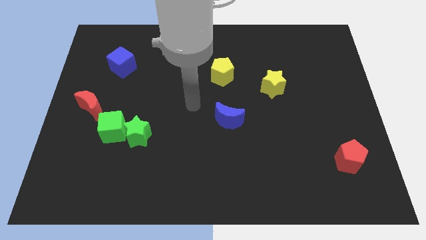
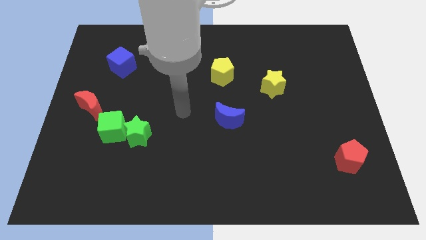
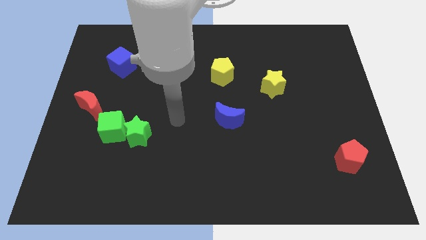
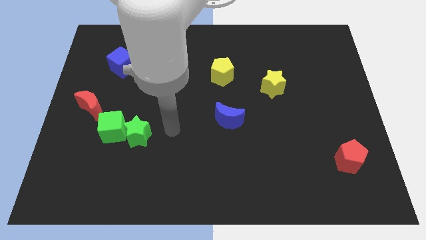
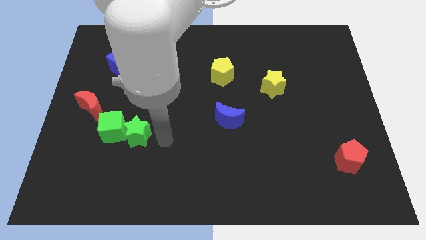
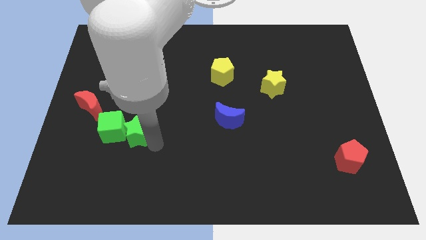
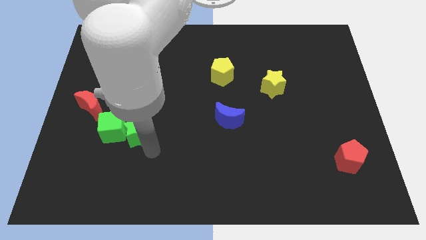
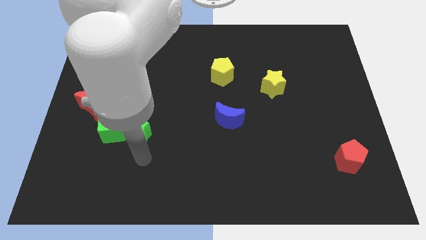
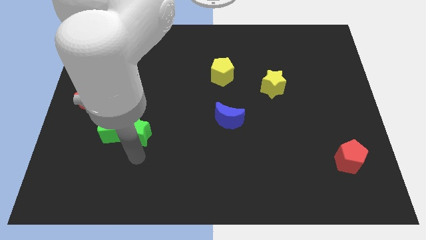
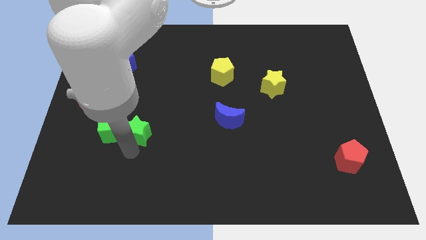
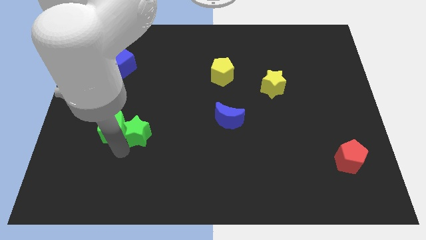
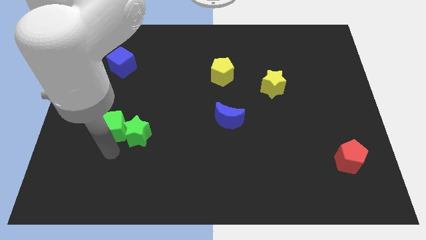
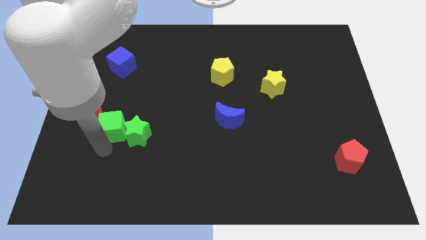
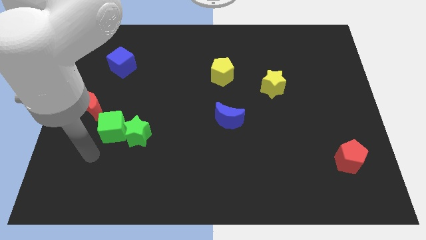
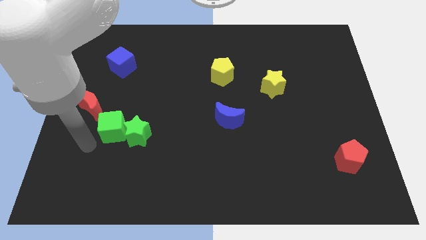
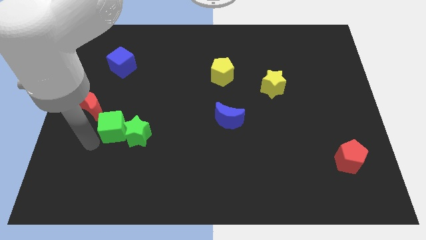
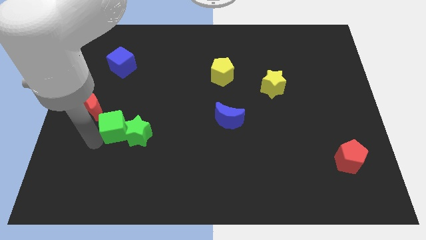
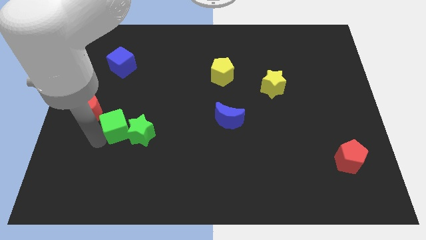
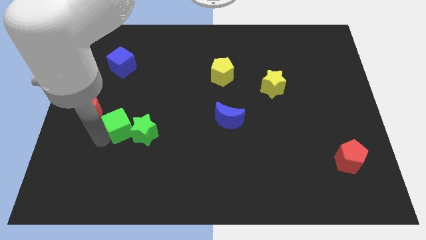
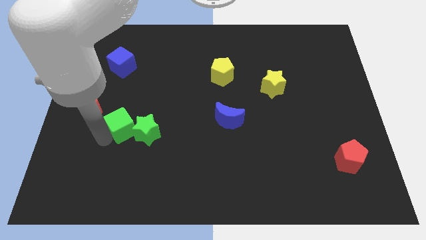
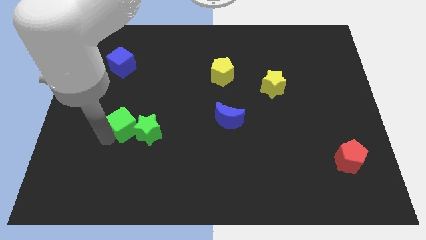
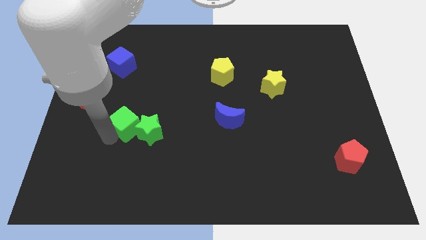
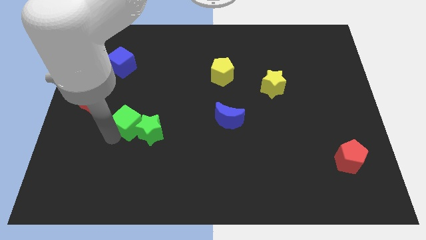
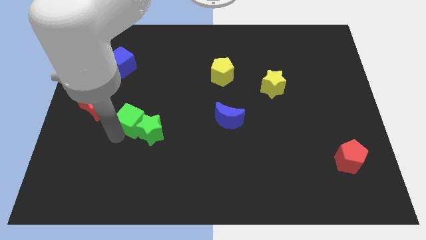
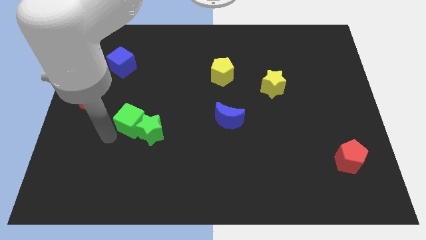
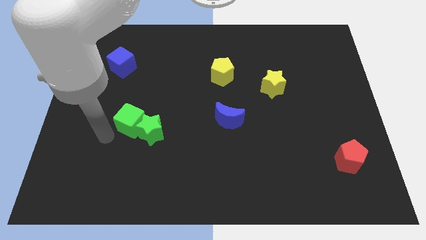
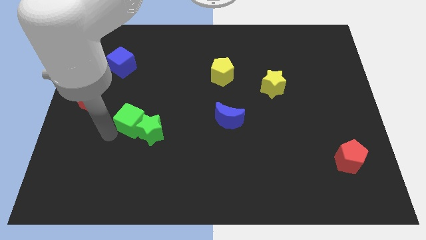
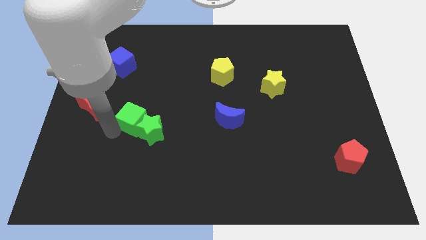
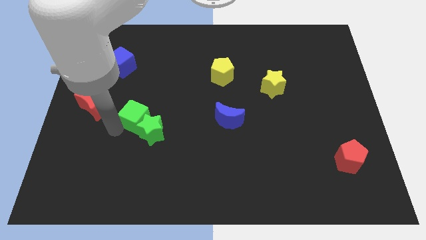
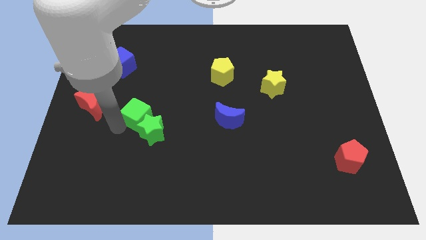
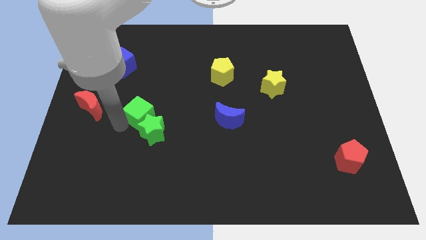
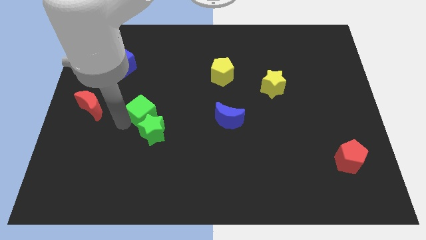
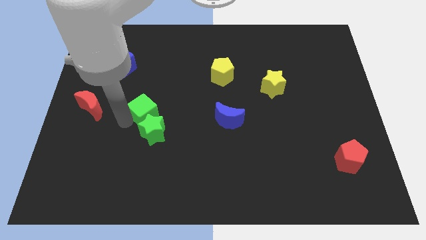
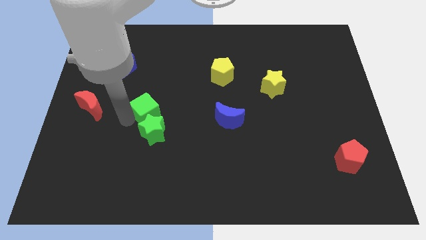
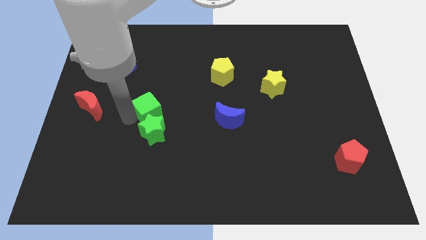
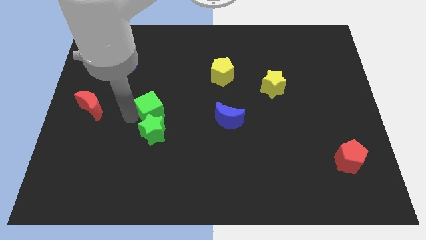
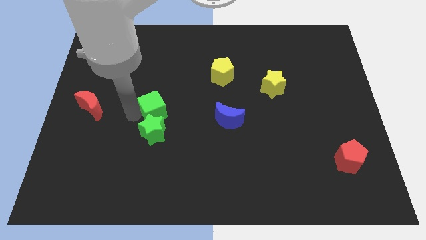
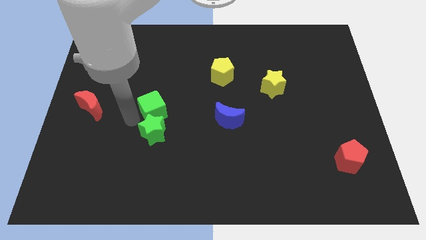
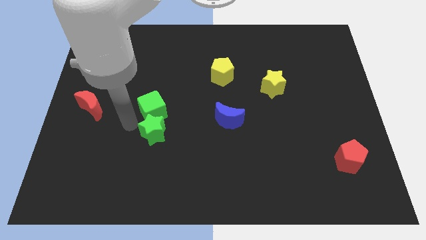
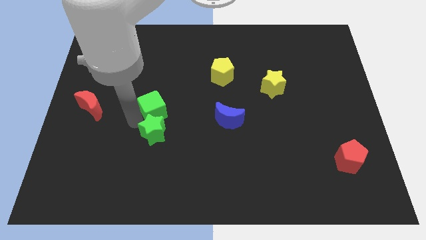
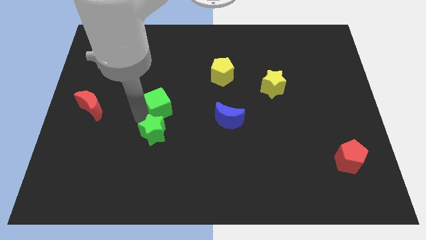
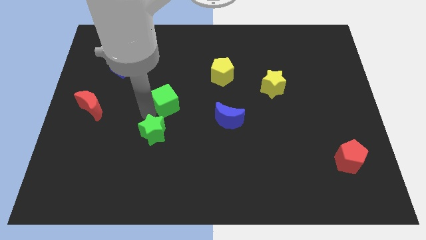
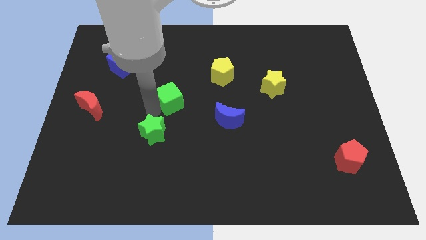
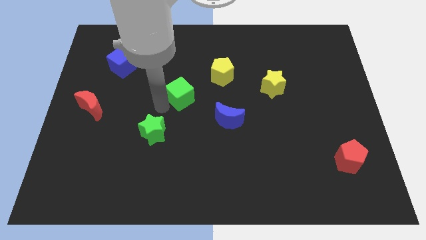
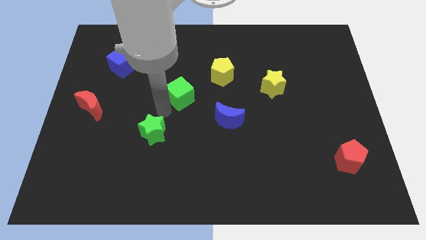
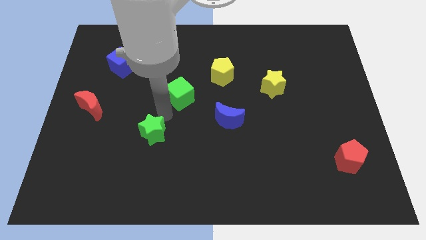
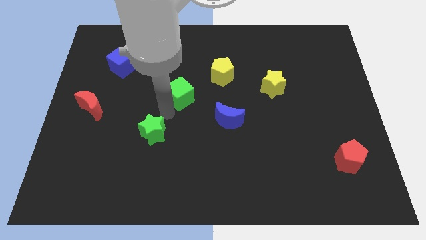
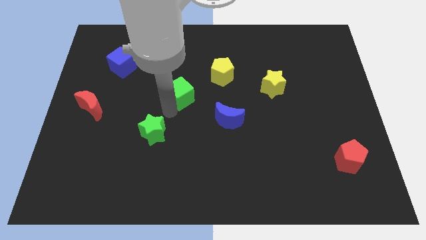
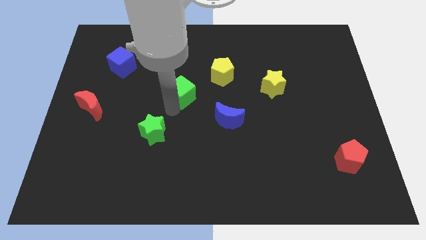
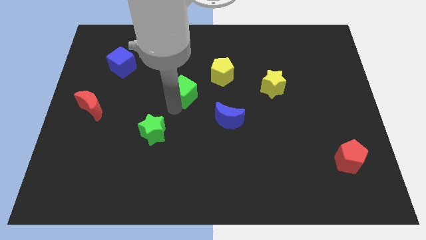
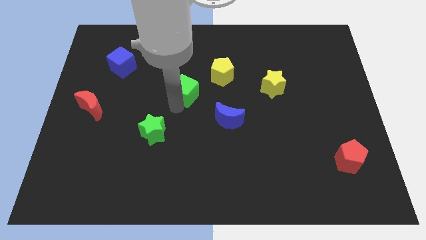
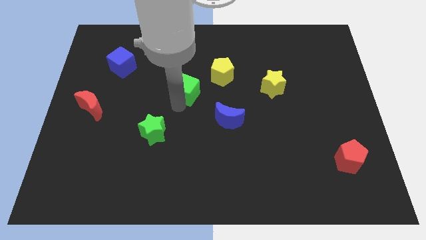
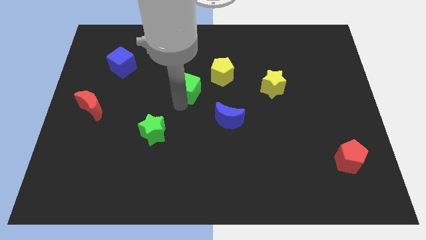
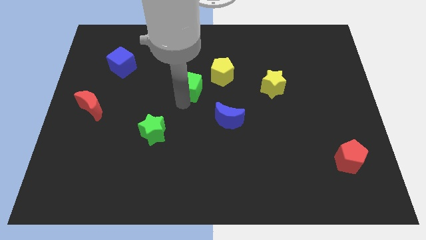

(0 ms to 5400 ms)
slide the green cube up and then right

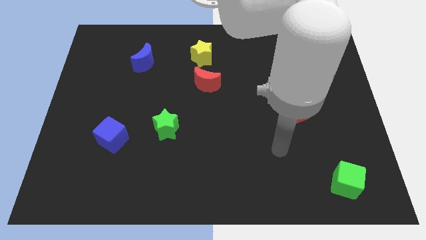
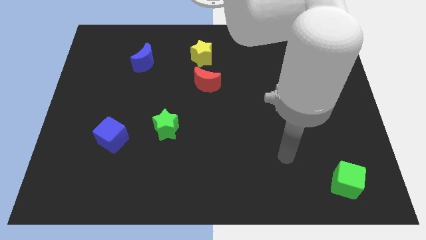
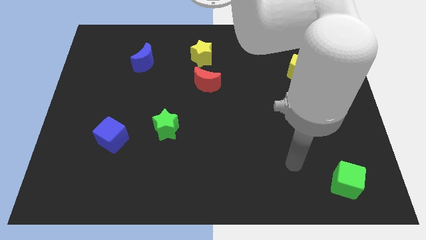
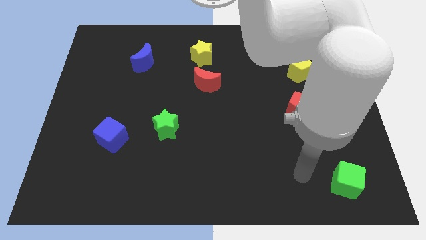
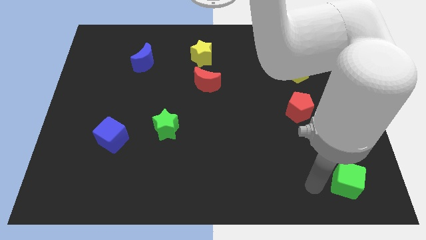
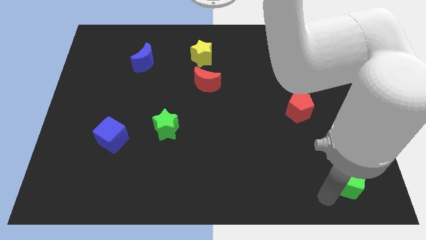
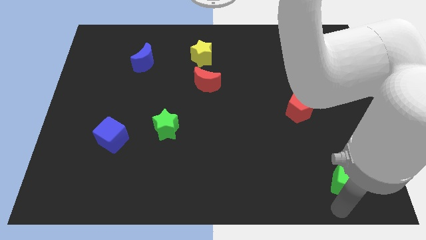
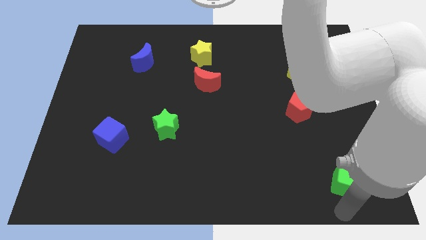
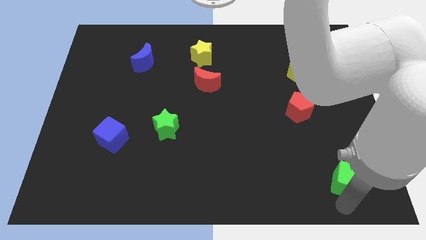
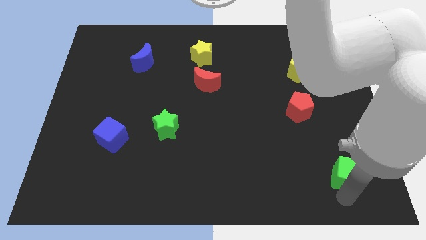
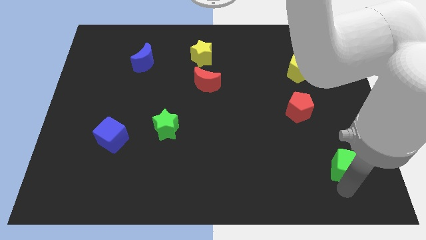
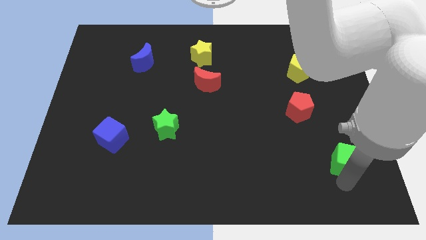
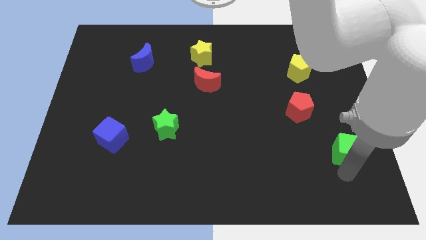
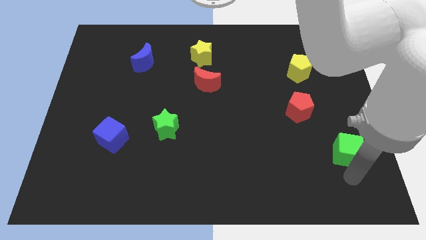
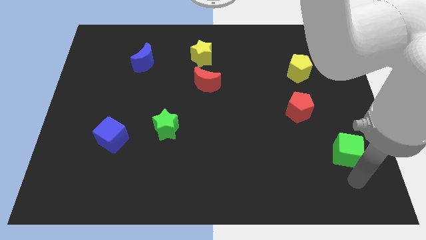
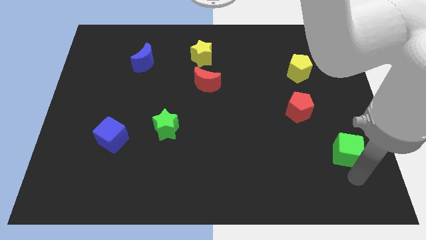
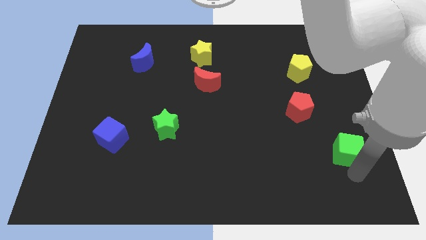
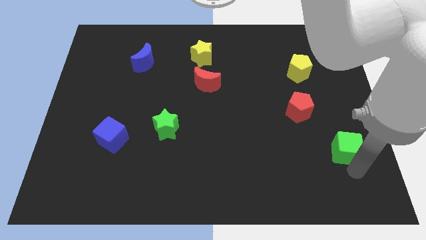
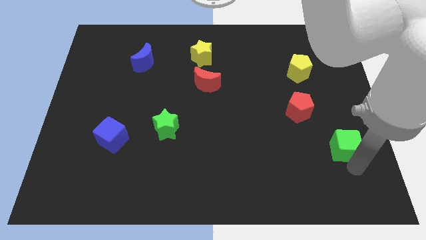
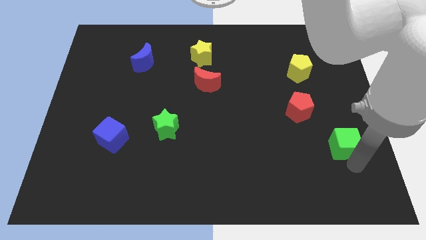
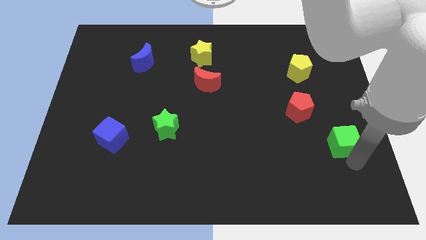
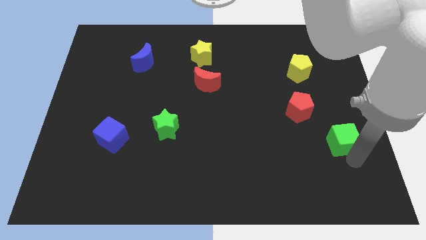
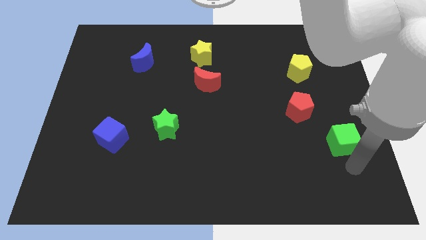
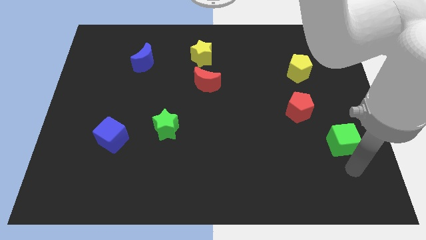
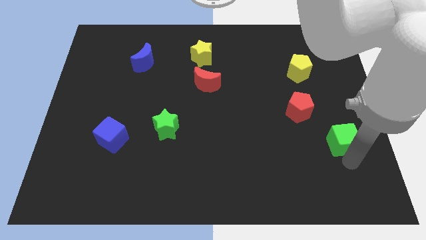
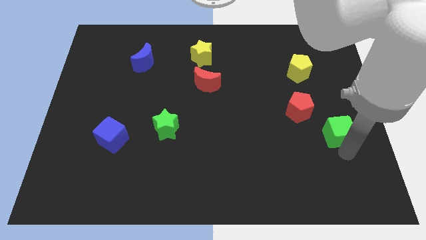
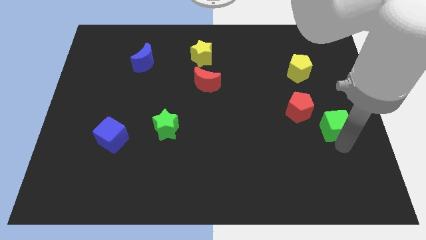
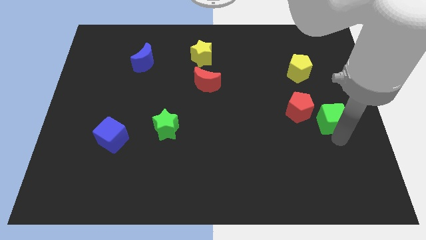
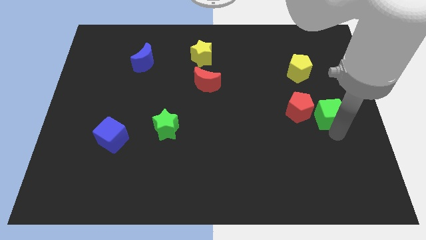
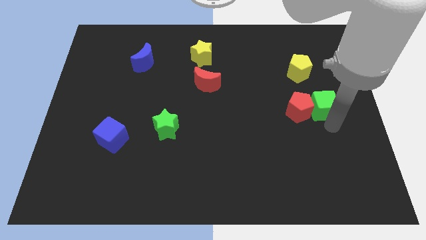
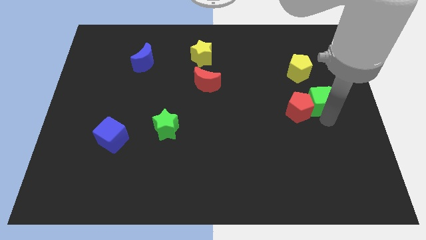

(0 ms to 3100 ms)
push the green cube upwards
